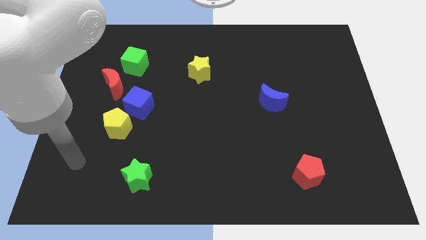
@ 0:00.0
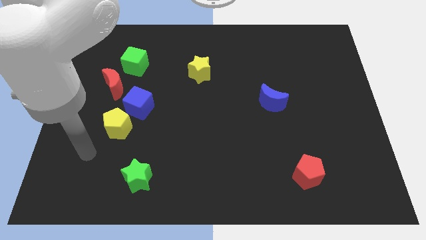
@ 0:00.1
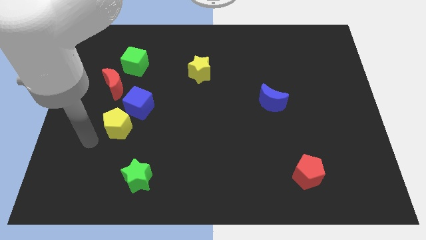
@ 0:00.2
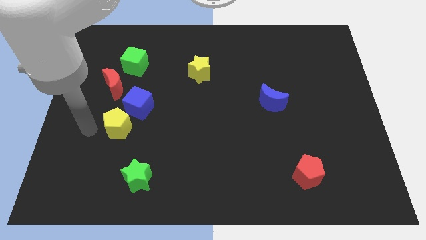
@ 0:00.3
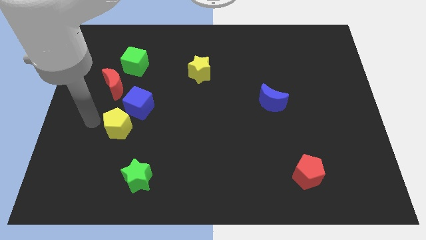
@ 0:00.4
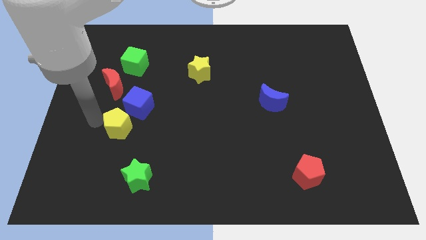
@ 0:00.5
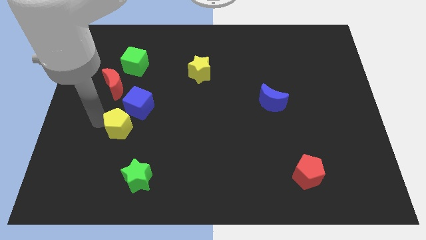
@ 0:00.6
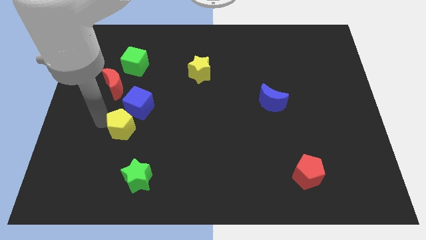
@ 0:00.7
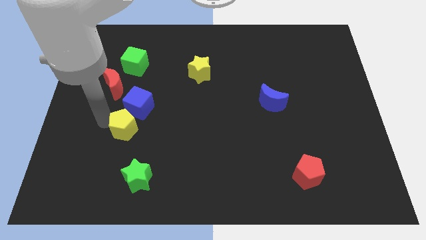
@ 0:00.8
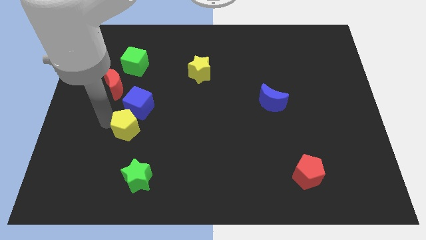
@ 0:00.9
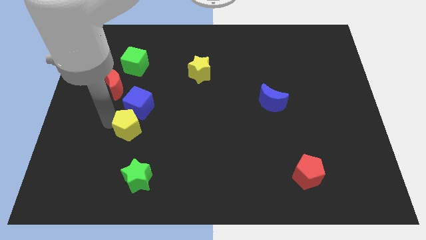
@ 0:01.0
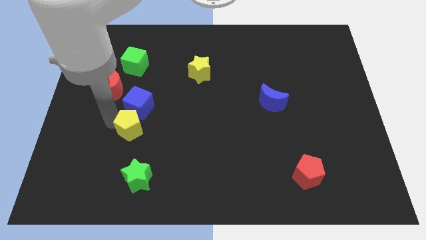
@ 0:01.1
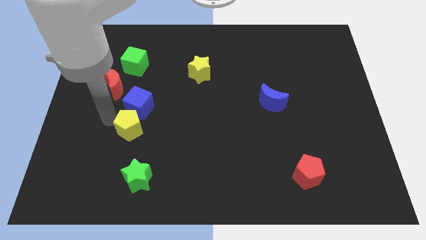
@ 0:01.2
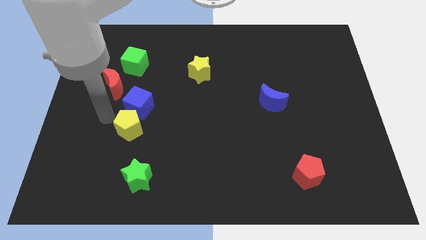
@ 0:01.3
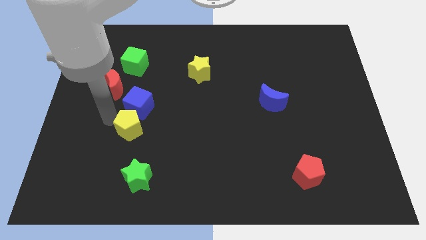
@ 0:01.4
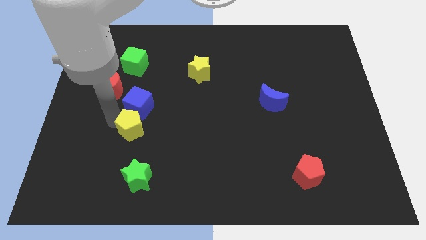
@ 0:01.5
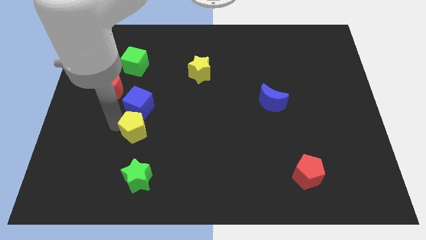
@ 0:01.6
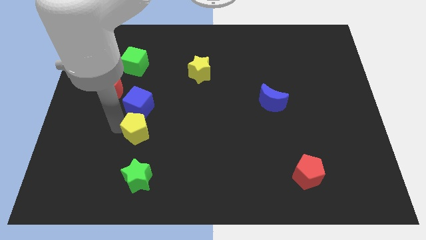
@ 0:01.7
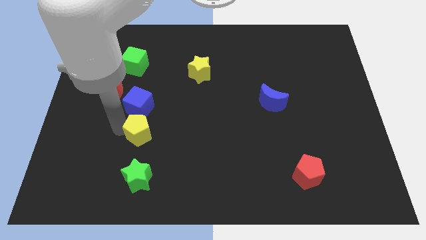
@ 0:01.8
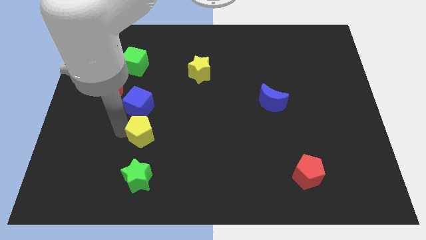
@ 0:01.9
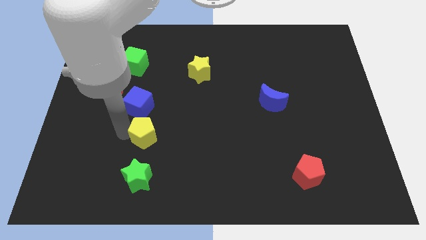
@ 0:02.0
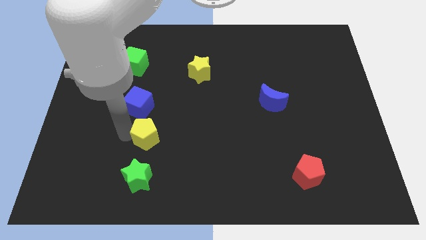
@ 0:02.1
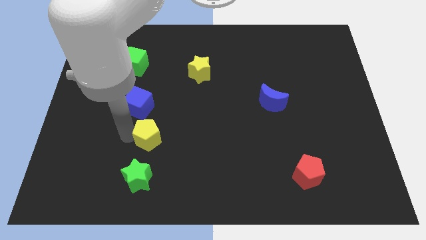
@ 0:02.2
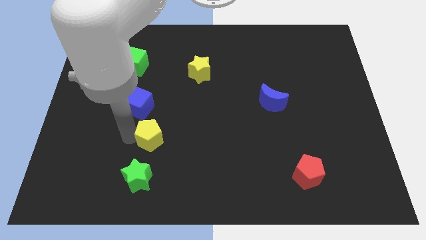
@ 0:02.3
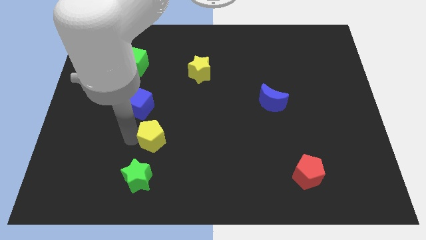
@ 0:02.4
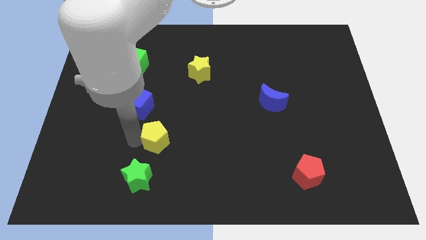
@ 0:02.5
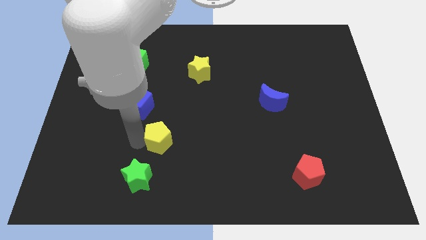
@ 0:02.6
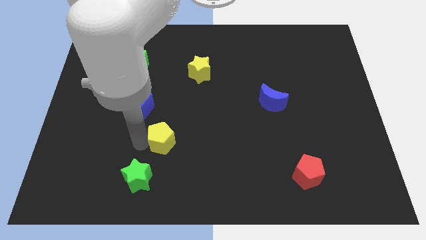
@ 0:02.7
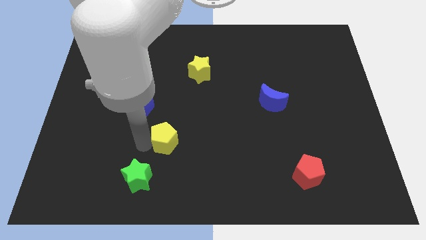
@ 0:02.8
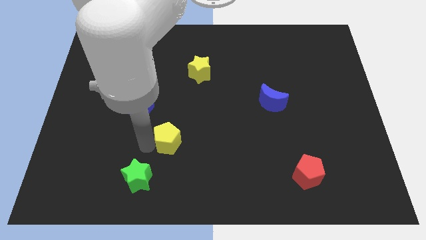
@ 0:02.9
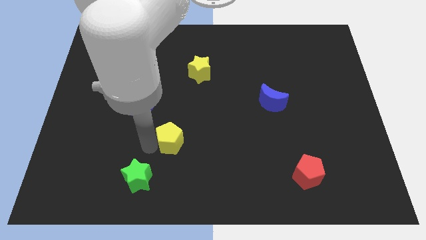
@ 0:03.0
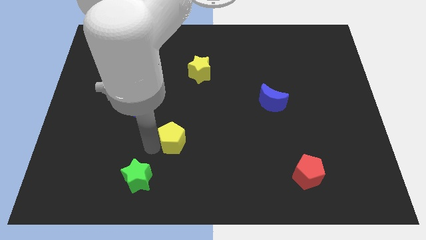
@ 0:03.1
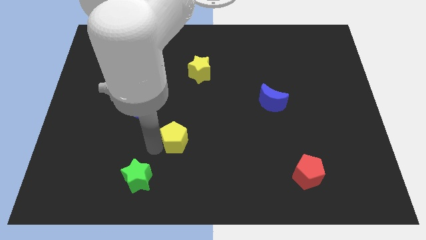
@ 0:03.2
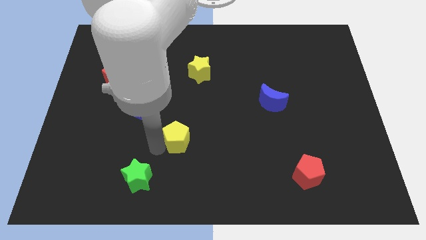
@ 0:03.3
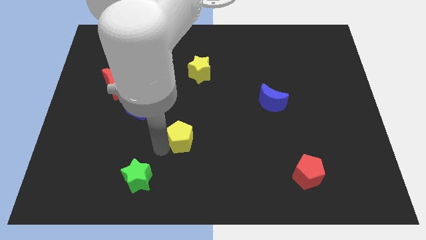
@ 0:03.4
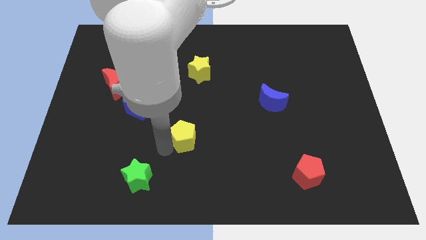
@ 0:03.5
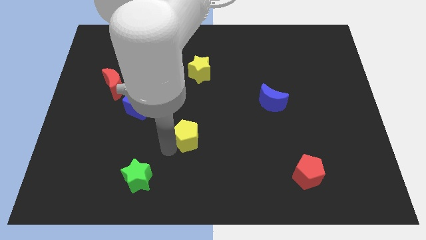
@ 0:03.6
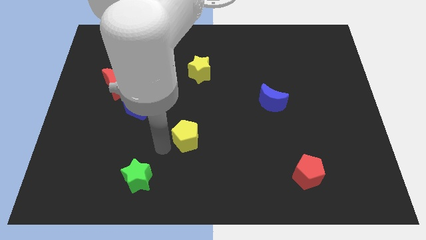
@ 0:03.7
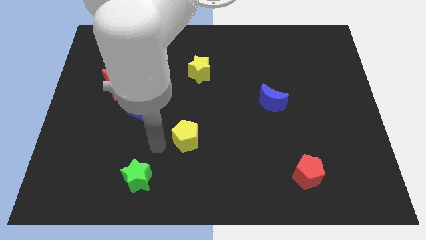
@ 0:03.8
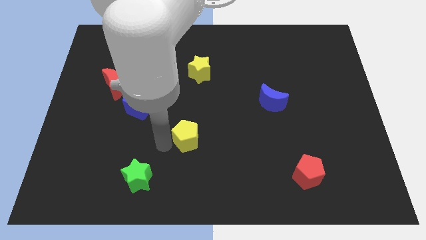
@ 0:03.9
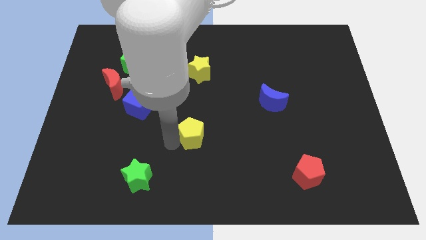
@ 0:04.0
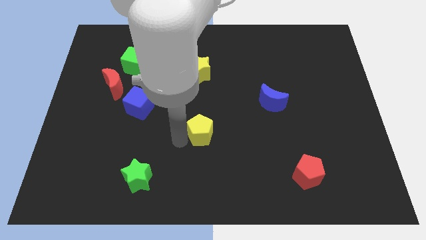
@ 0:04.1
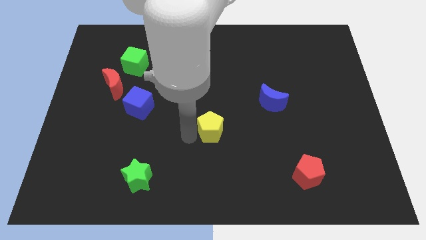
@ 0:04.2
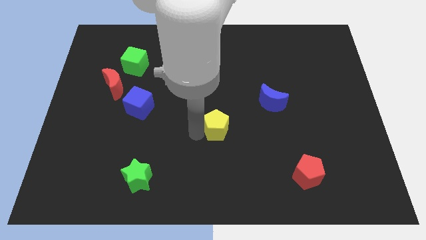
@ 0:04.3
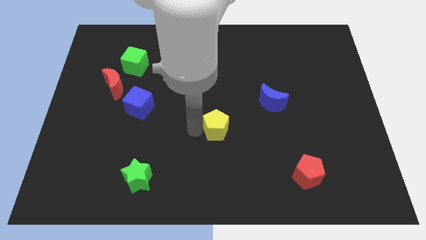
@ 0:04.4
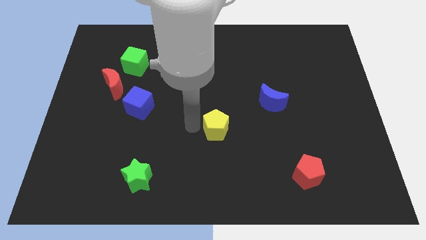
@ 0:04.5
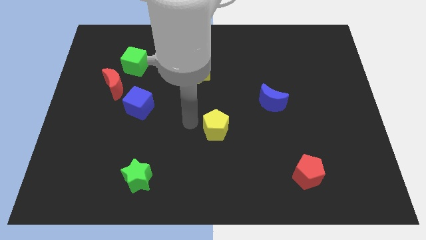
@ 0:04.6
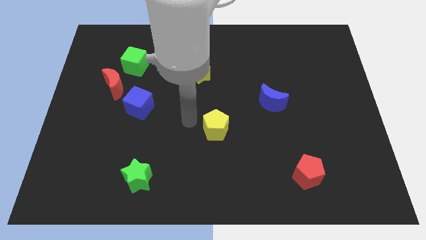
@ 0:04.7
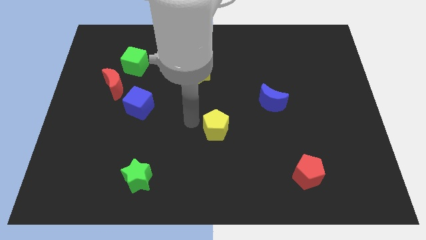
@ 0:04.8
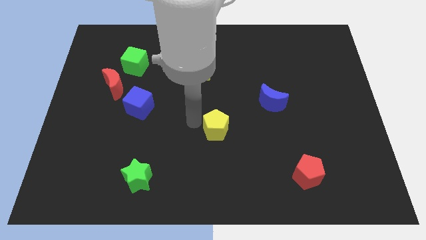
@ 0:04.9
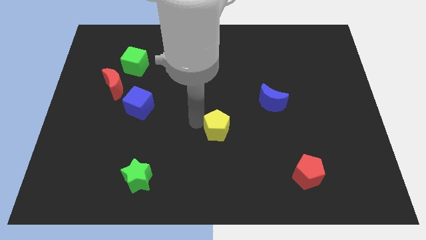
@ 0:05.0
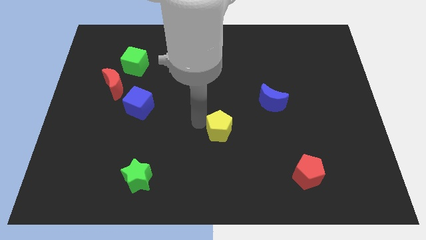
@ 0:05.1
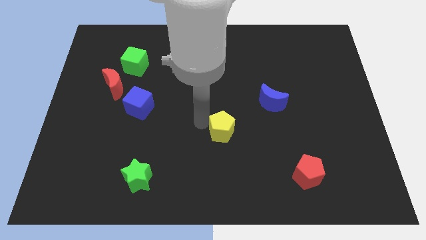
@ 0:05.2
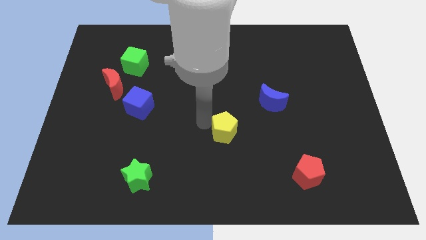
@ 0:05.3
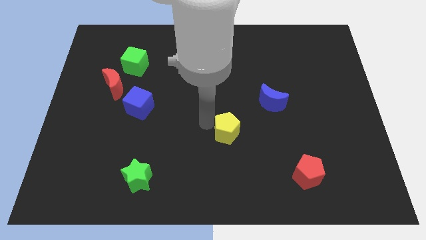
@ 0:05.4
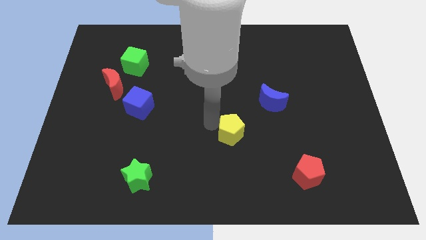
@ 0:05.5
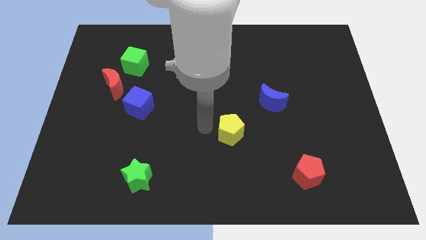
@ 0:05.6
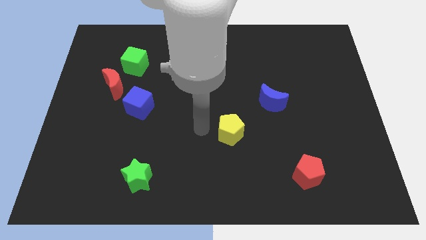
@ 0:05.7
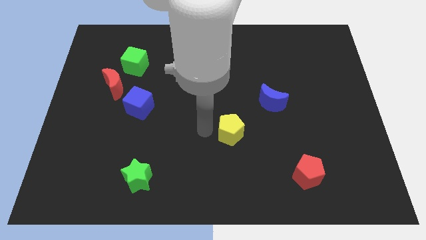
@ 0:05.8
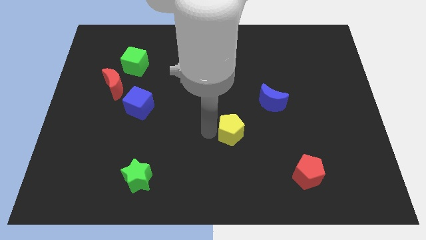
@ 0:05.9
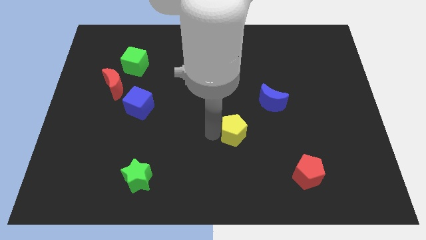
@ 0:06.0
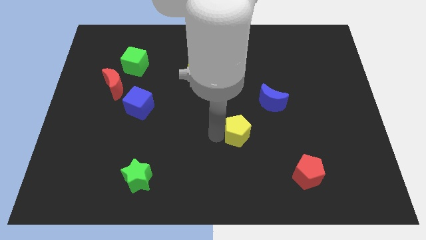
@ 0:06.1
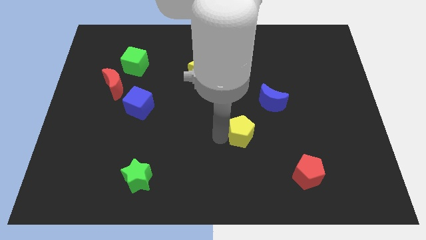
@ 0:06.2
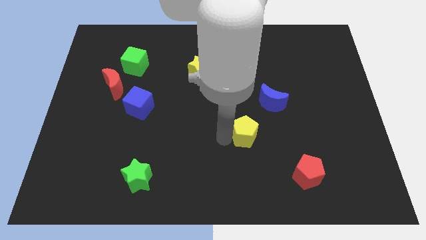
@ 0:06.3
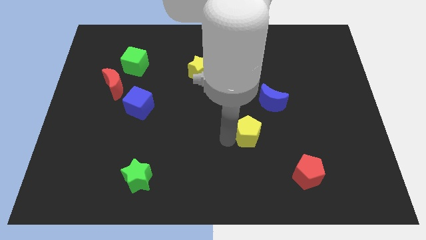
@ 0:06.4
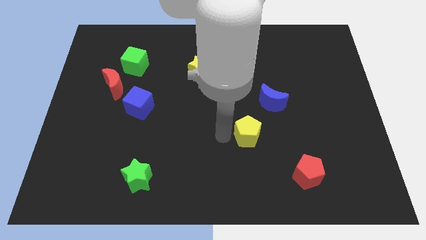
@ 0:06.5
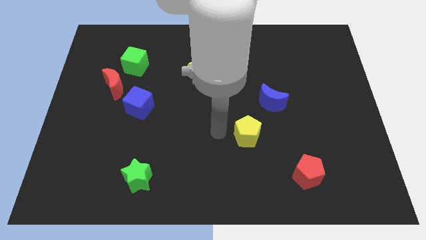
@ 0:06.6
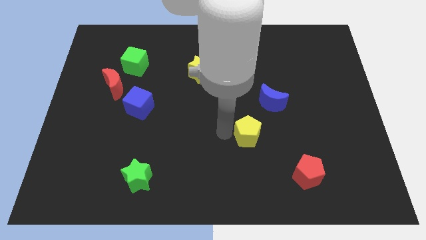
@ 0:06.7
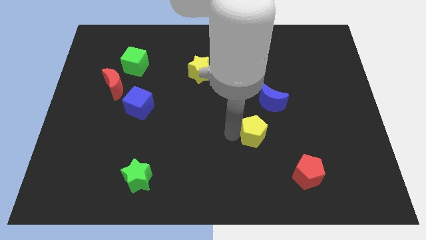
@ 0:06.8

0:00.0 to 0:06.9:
put the yellow pentagon below the blue moon

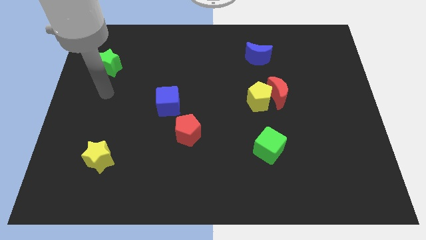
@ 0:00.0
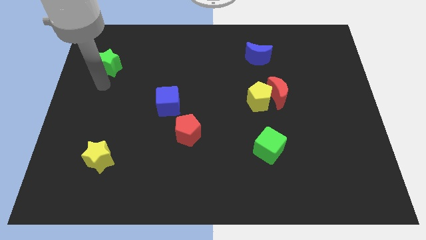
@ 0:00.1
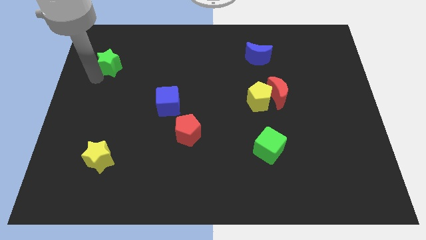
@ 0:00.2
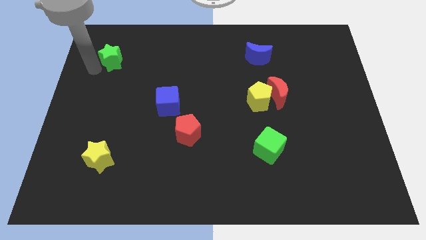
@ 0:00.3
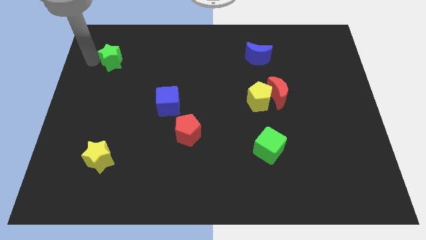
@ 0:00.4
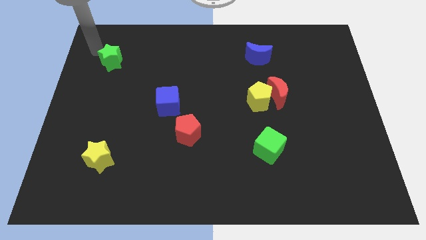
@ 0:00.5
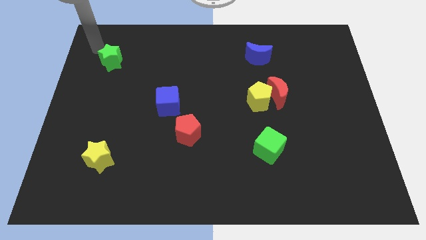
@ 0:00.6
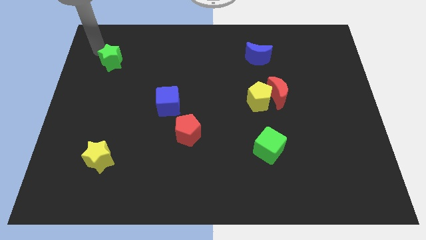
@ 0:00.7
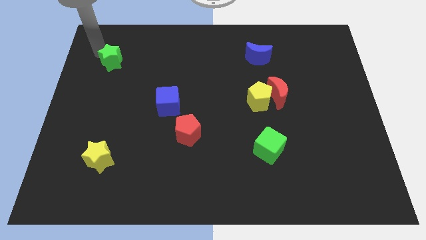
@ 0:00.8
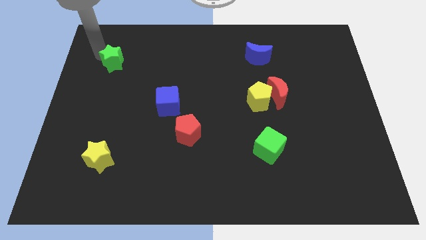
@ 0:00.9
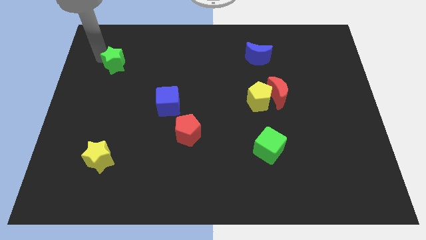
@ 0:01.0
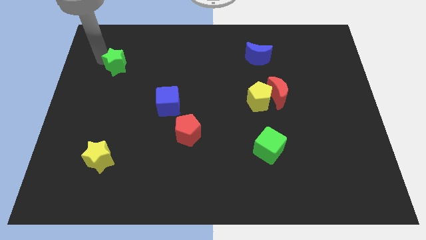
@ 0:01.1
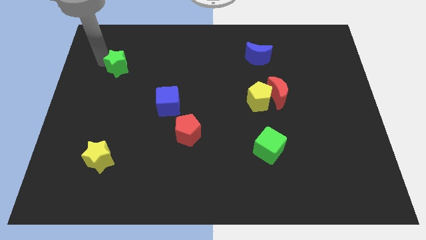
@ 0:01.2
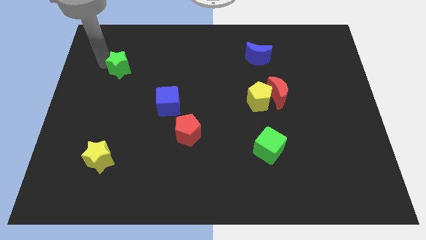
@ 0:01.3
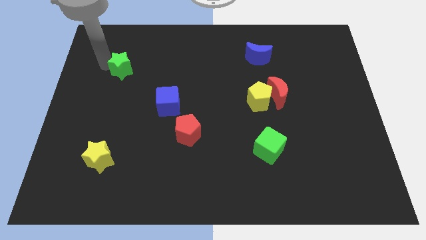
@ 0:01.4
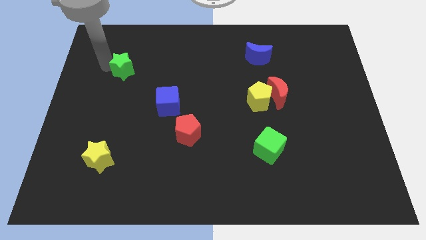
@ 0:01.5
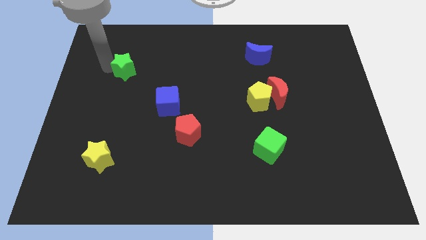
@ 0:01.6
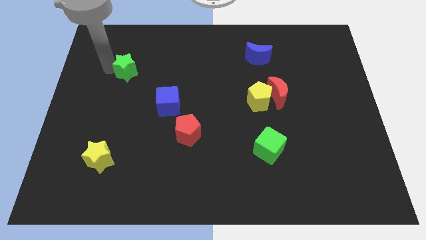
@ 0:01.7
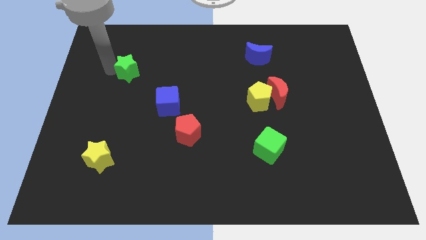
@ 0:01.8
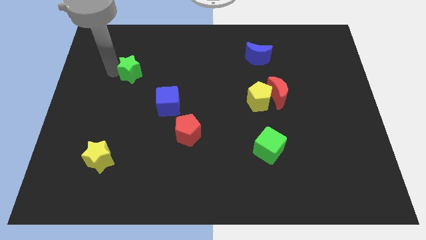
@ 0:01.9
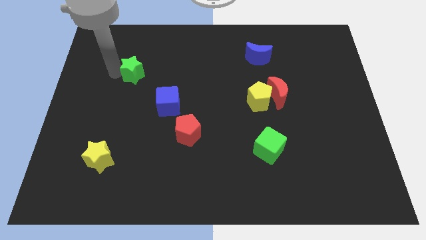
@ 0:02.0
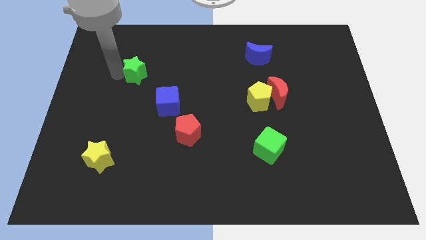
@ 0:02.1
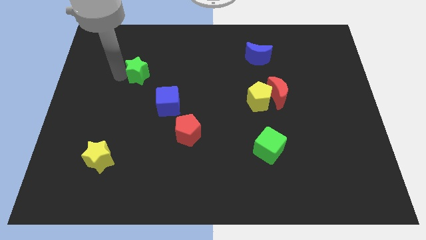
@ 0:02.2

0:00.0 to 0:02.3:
slide the green star to the top left of the blue cube
